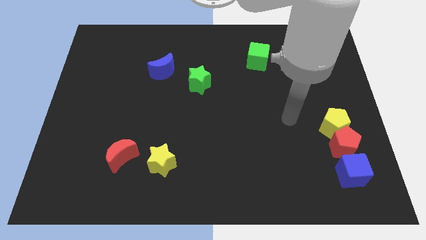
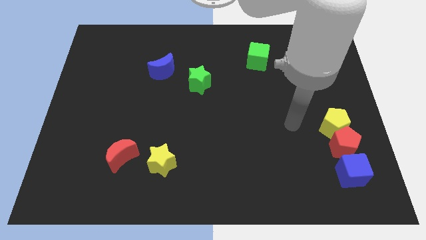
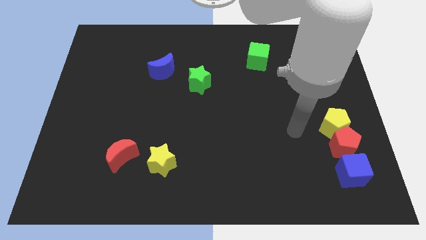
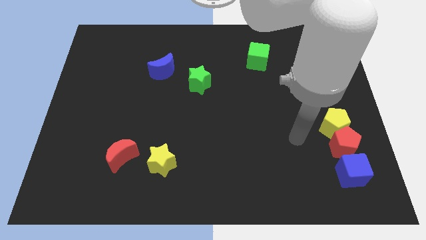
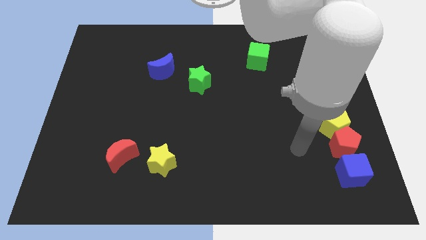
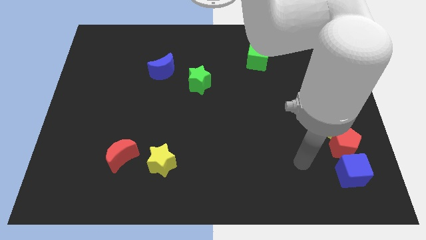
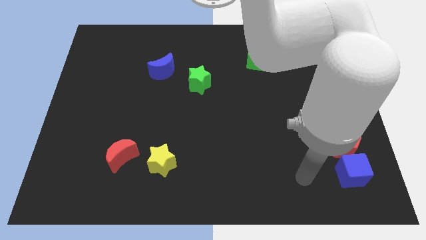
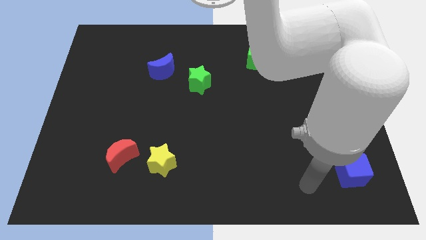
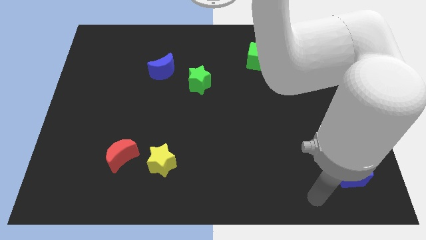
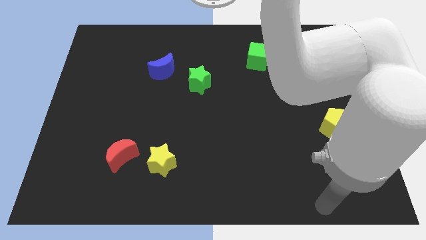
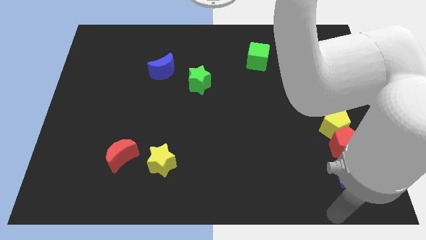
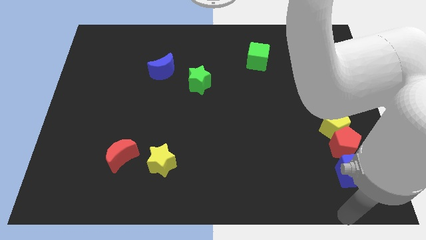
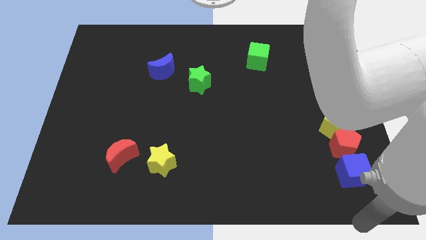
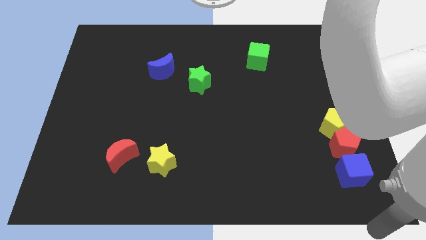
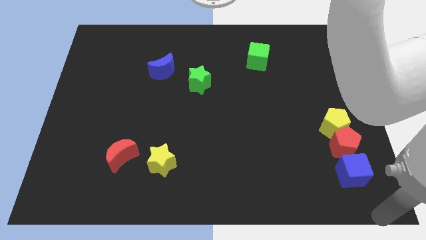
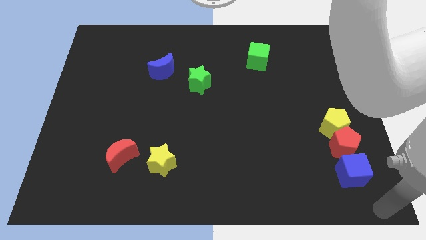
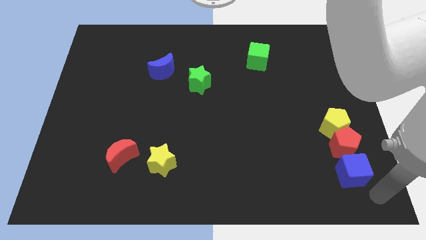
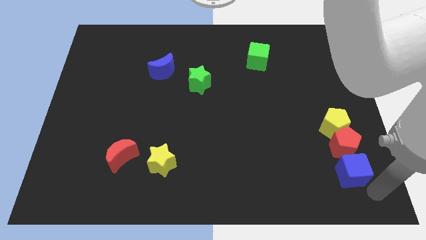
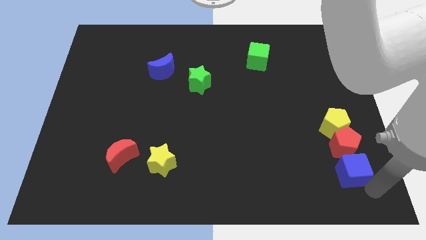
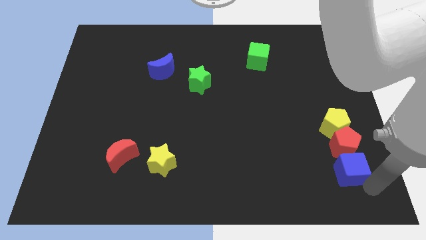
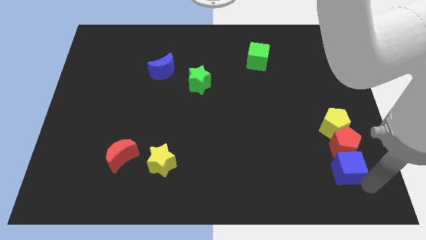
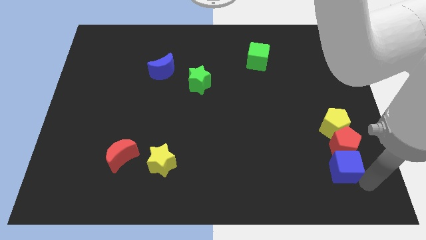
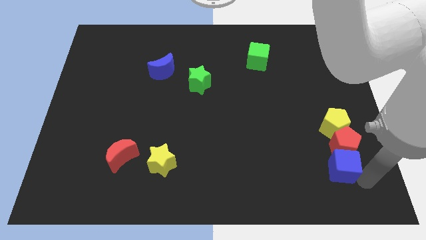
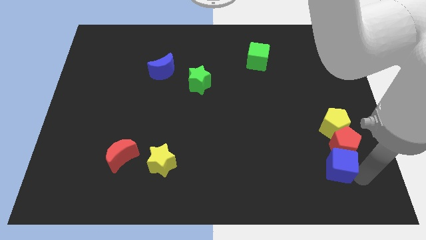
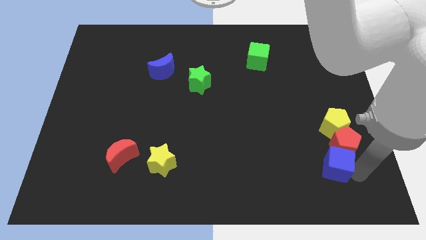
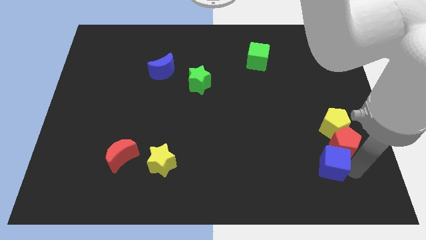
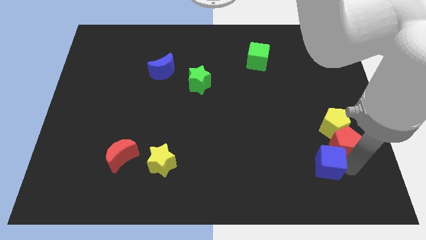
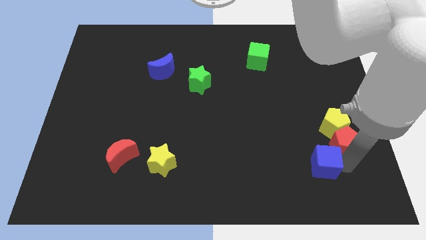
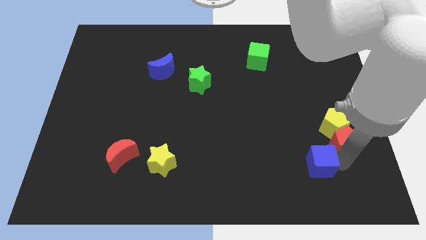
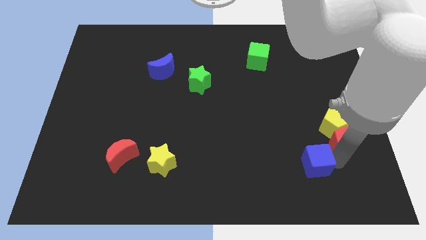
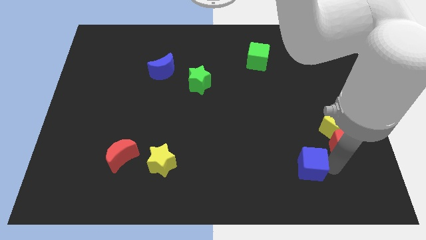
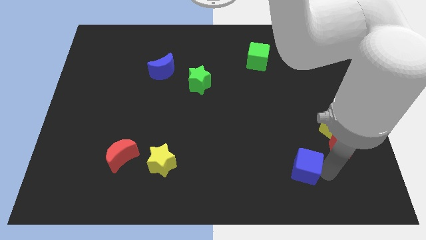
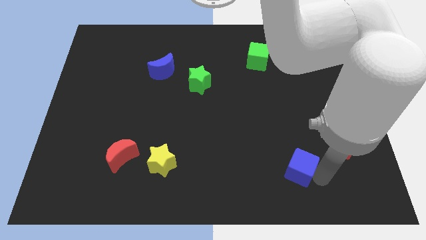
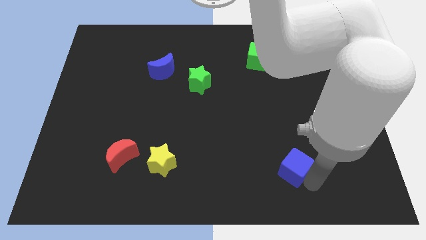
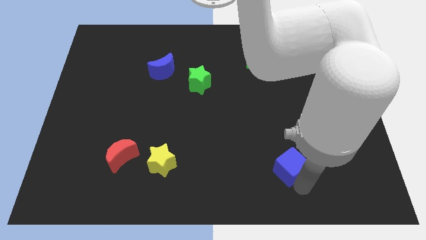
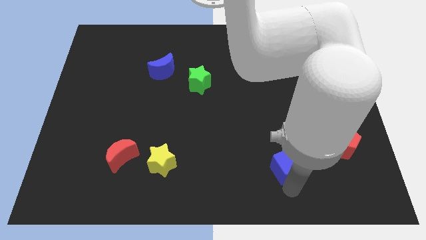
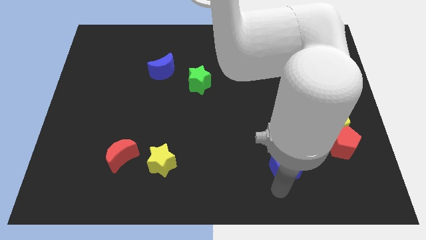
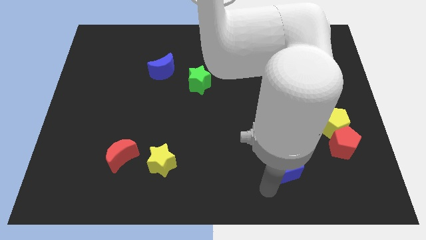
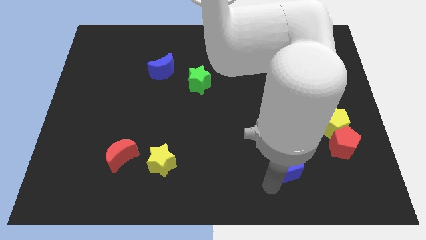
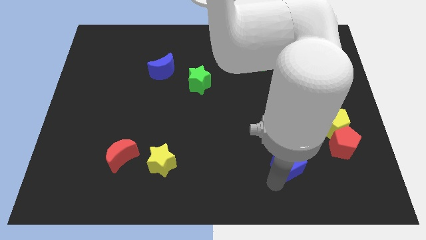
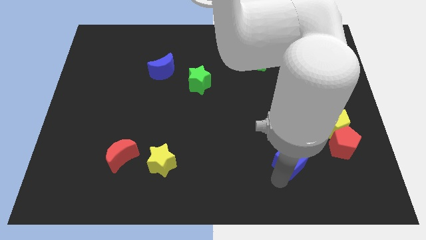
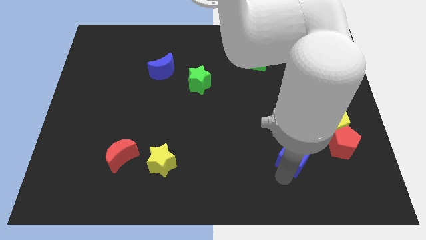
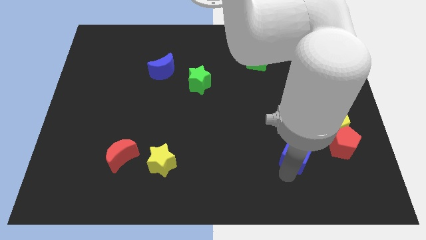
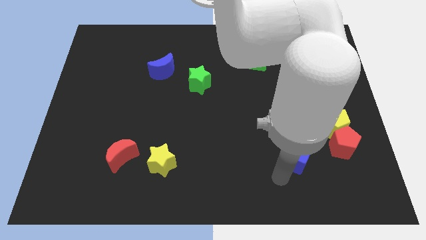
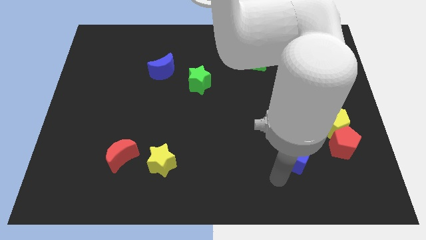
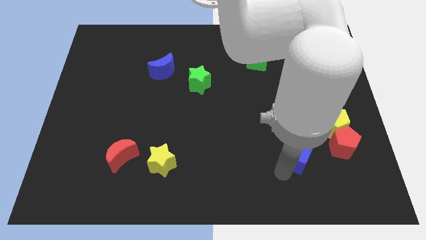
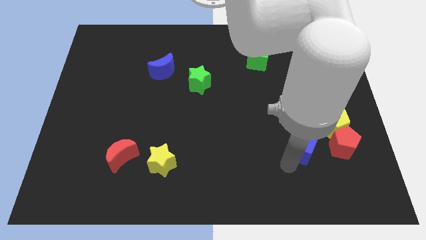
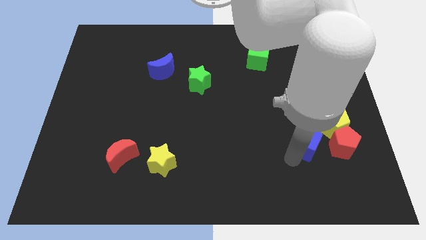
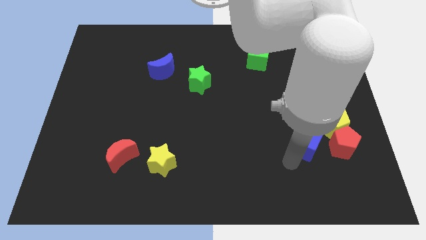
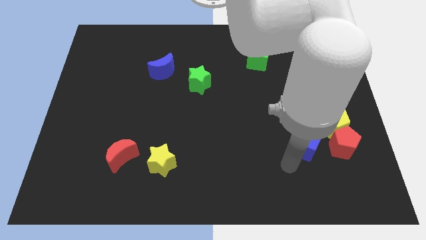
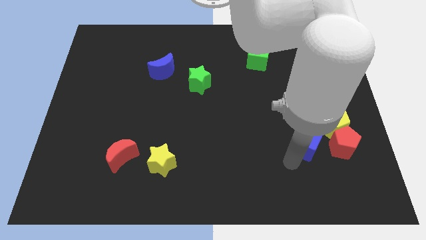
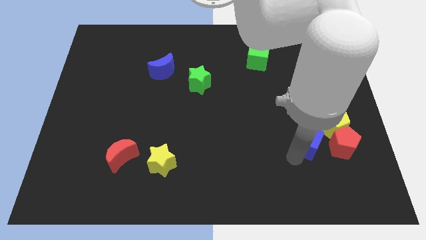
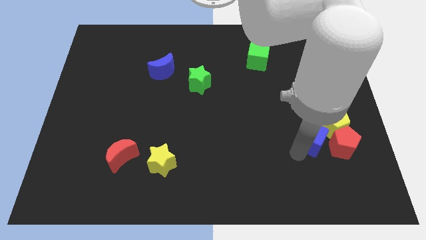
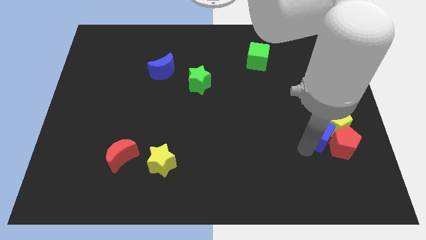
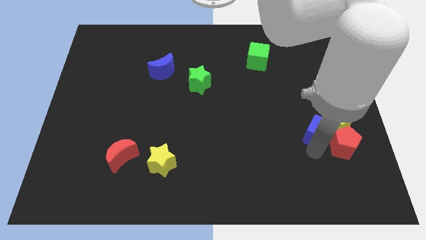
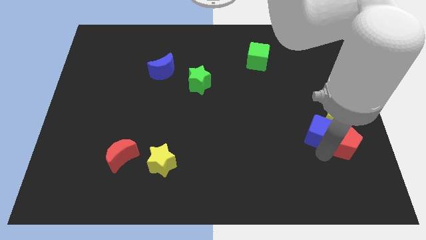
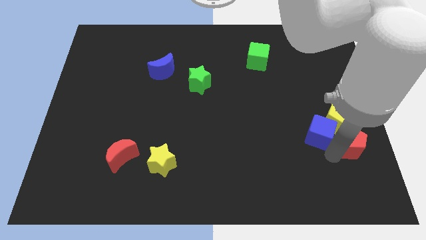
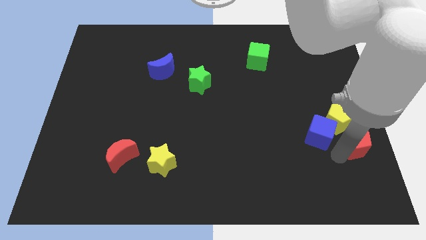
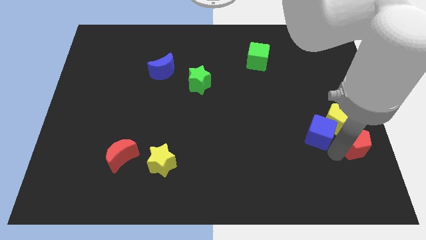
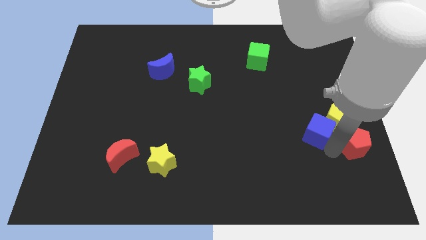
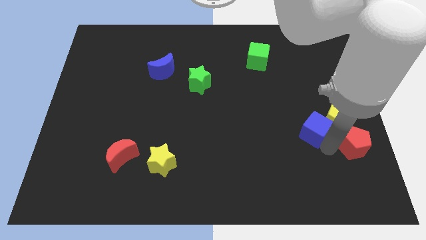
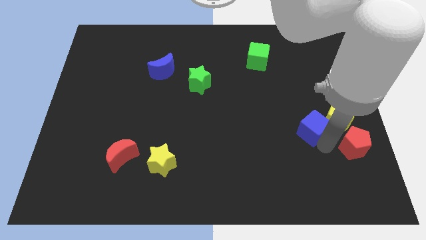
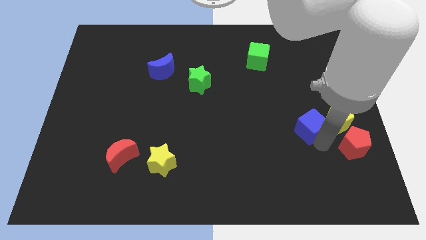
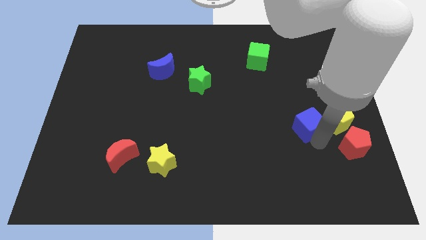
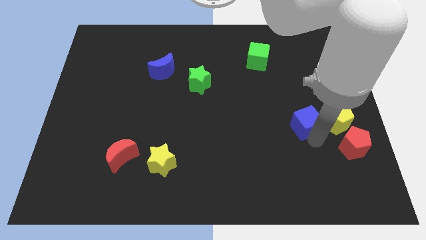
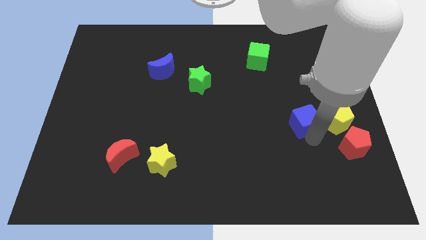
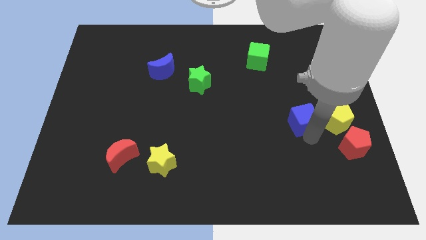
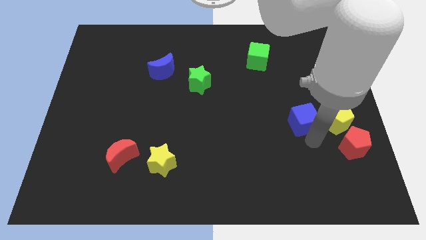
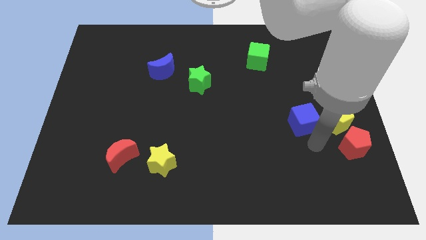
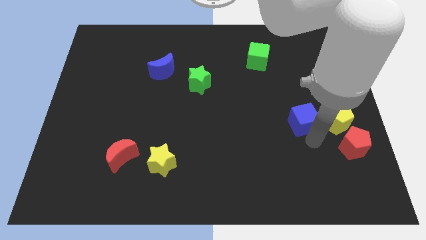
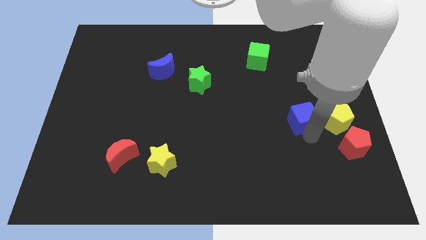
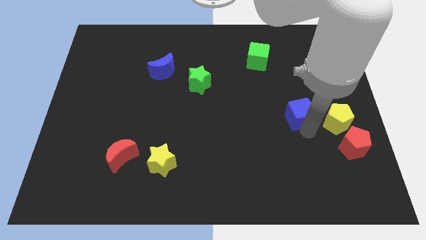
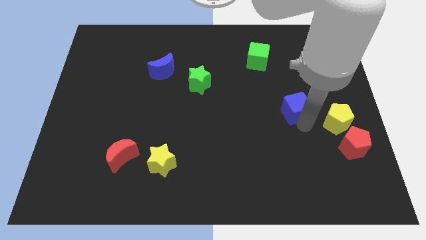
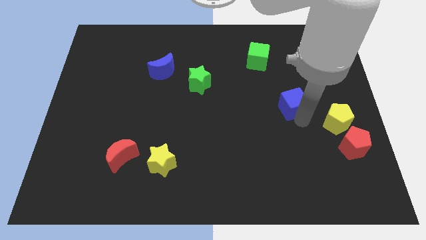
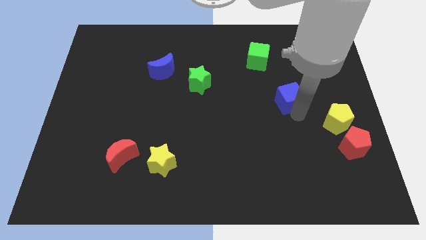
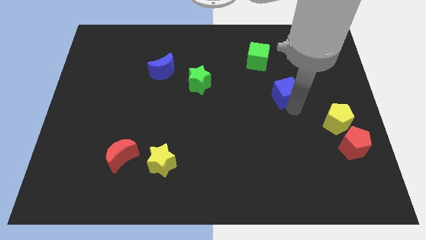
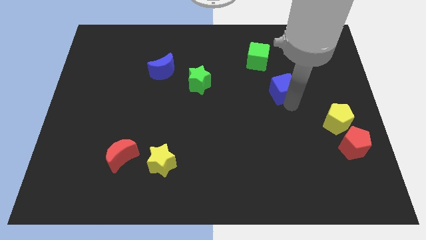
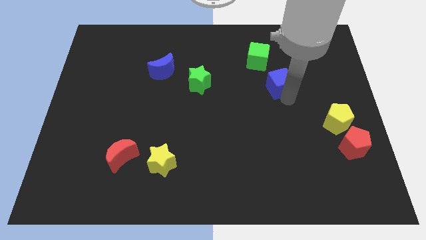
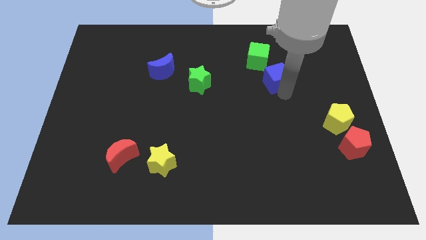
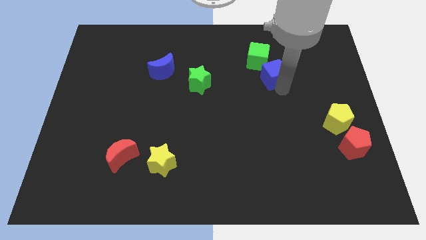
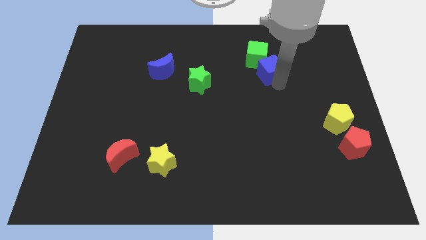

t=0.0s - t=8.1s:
push the blue cube to the green cube
